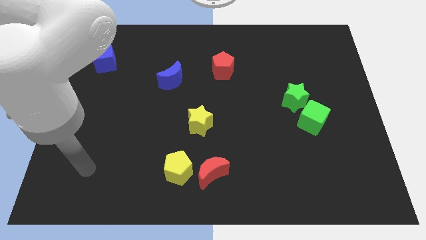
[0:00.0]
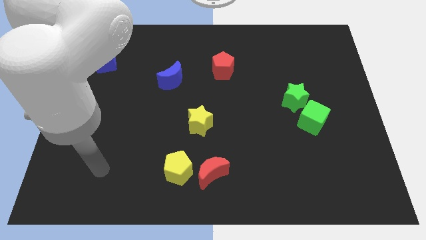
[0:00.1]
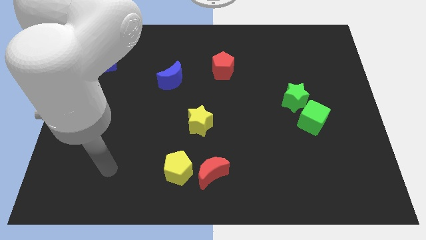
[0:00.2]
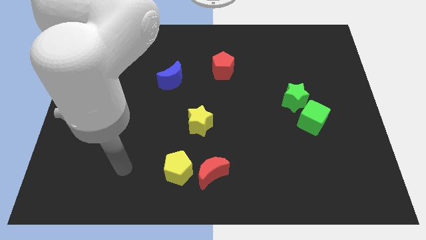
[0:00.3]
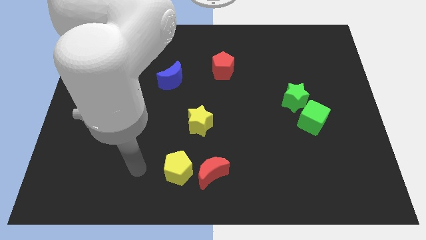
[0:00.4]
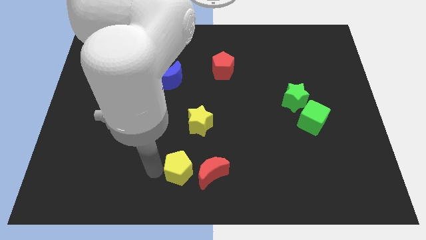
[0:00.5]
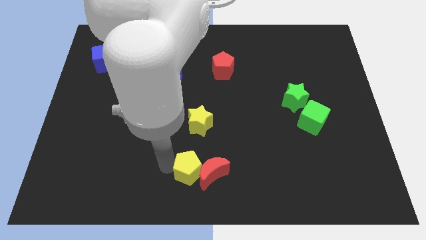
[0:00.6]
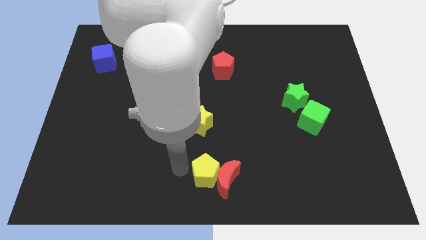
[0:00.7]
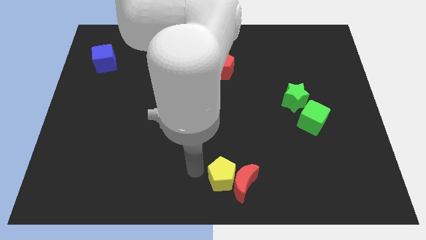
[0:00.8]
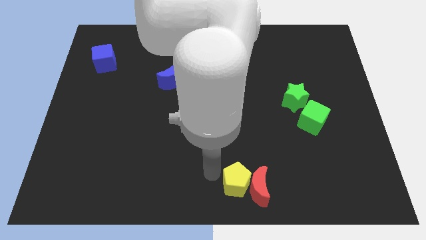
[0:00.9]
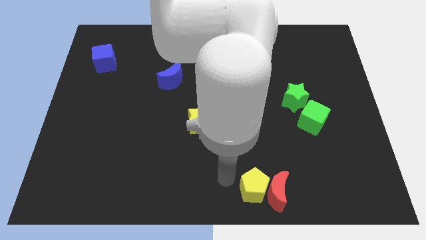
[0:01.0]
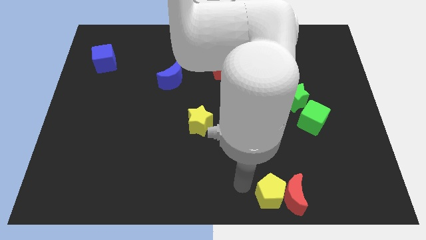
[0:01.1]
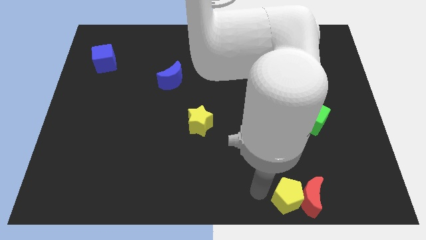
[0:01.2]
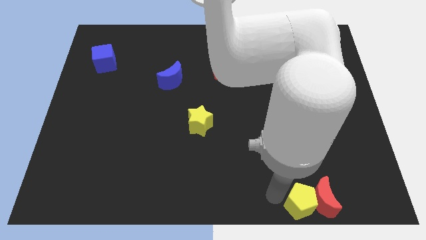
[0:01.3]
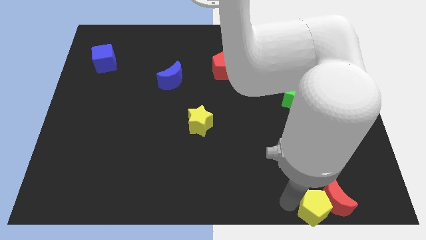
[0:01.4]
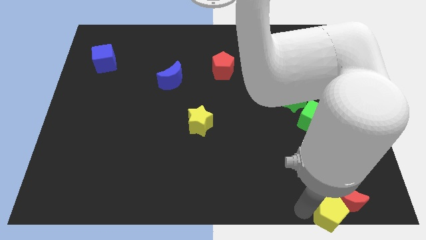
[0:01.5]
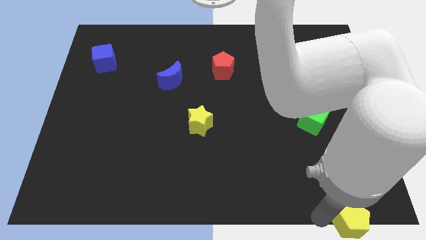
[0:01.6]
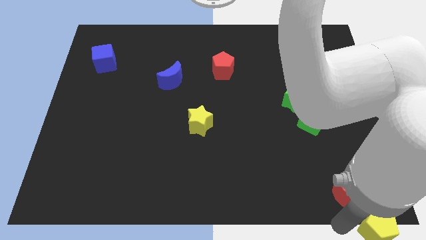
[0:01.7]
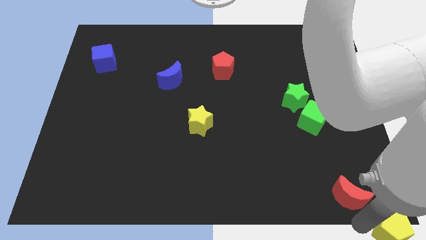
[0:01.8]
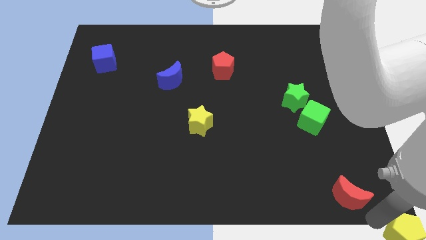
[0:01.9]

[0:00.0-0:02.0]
pull the red moon apart from the yellow pentagon

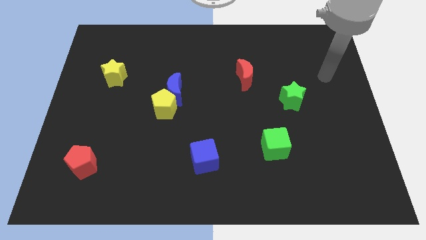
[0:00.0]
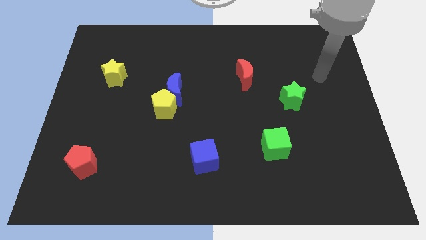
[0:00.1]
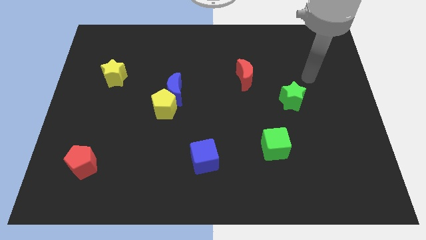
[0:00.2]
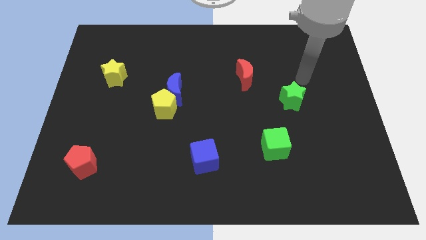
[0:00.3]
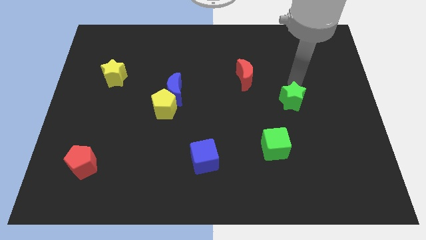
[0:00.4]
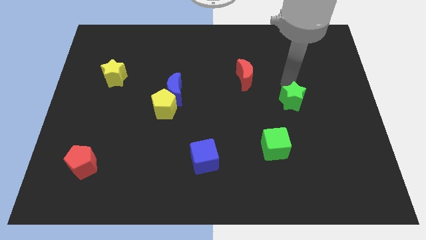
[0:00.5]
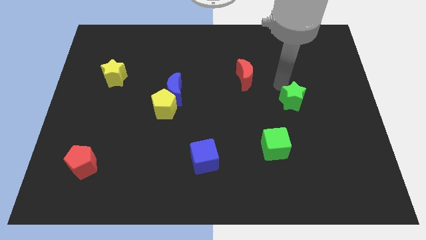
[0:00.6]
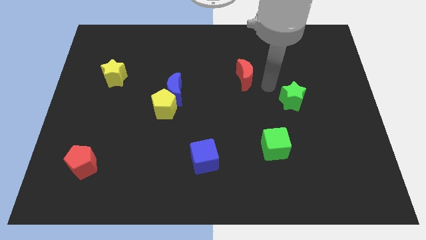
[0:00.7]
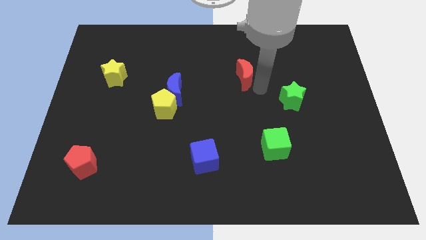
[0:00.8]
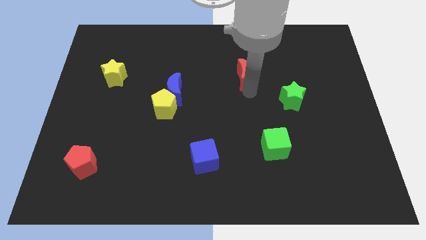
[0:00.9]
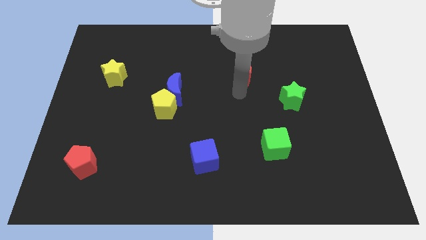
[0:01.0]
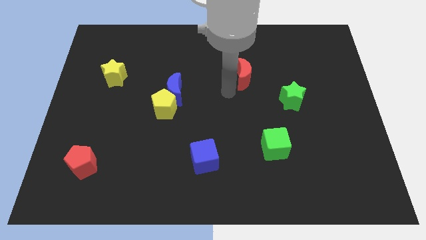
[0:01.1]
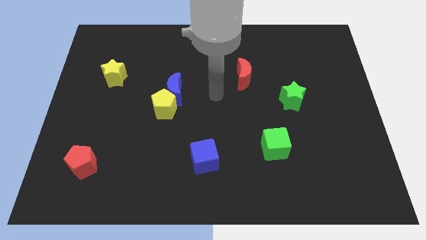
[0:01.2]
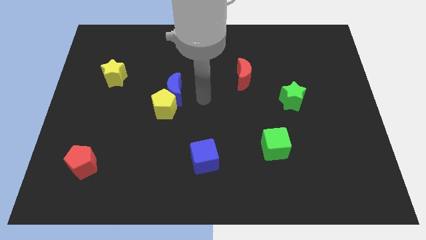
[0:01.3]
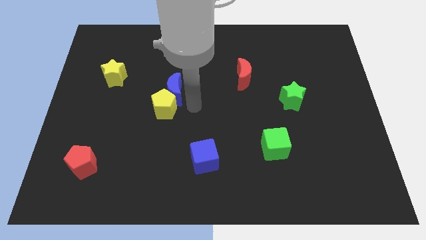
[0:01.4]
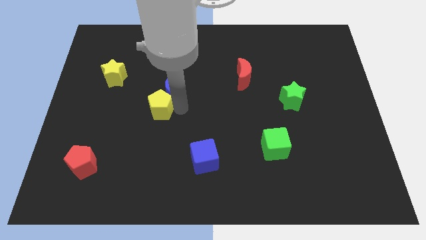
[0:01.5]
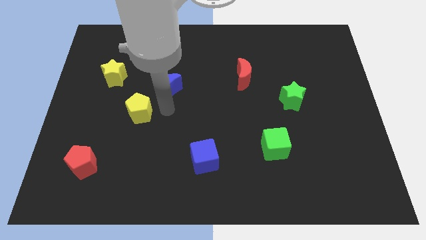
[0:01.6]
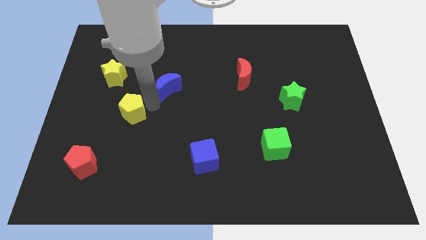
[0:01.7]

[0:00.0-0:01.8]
pull the blue moon apart from the yellow pentagon

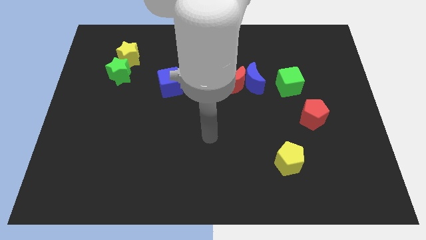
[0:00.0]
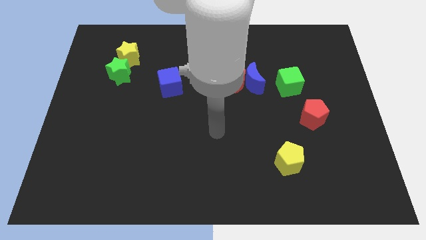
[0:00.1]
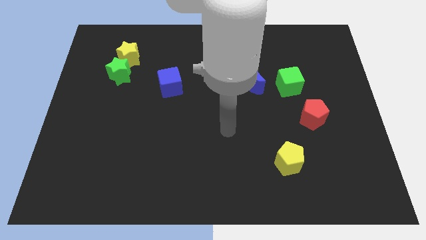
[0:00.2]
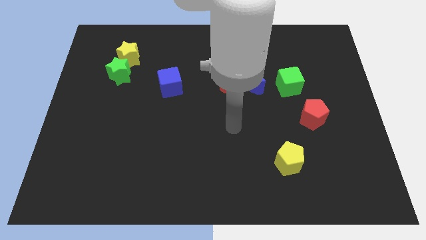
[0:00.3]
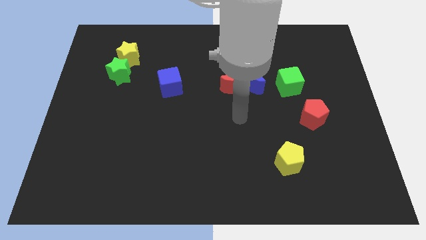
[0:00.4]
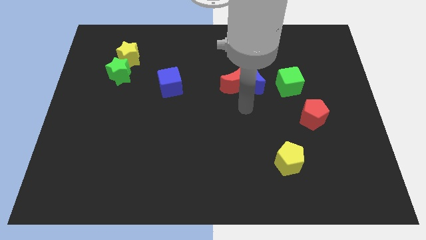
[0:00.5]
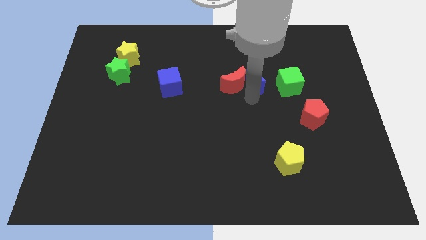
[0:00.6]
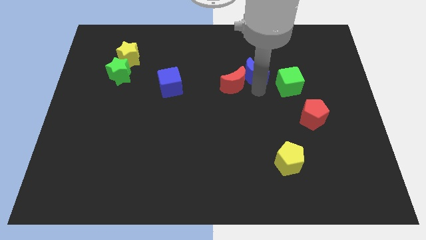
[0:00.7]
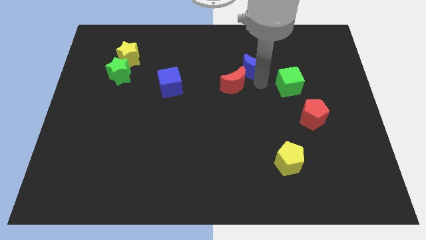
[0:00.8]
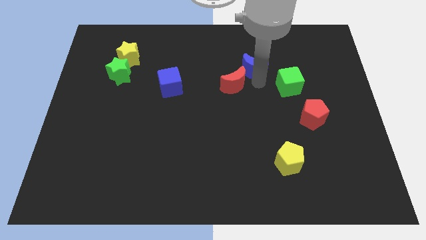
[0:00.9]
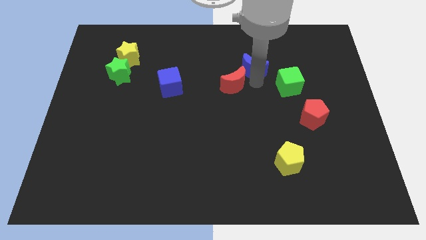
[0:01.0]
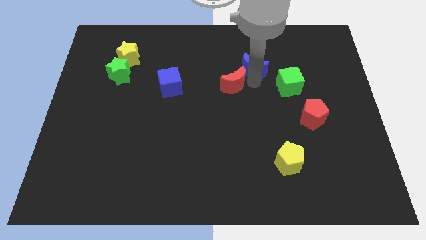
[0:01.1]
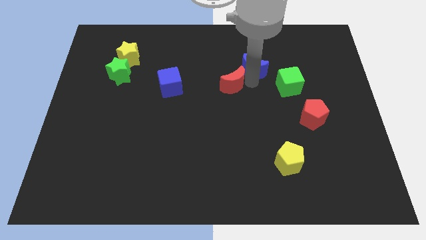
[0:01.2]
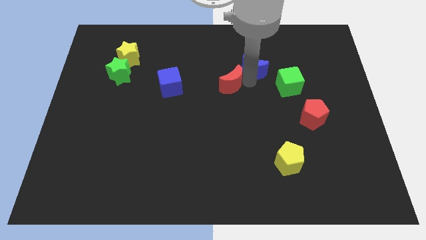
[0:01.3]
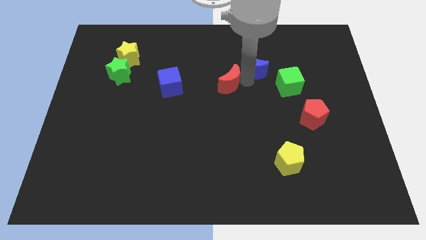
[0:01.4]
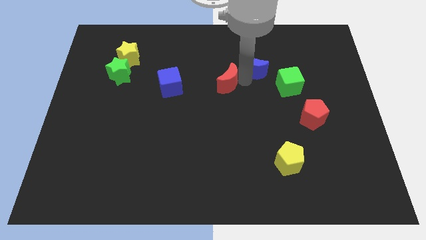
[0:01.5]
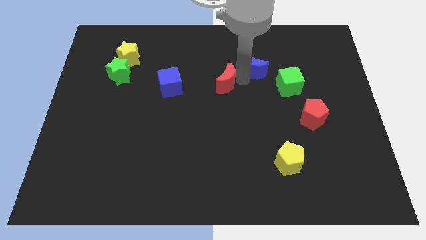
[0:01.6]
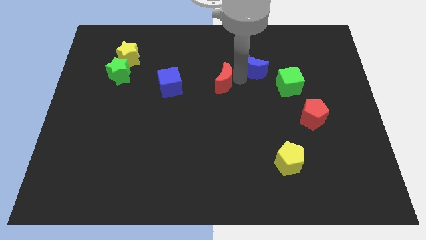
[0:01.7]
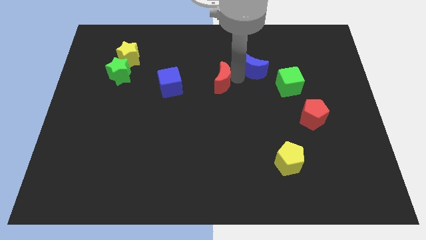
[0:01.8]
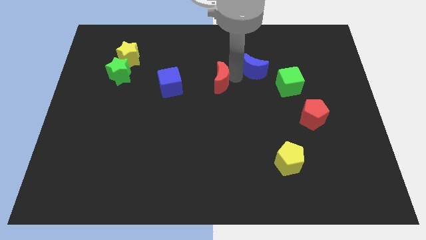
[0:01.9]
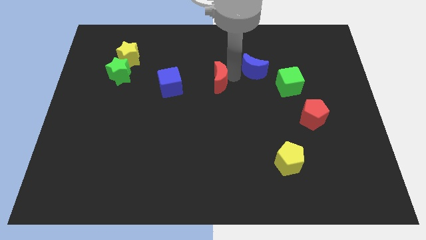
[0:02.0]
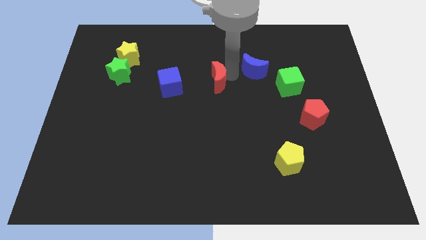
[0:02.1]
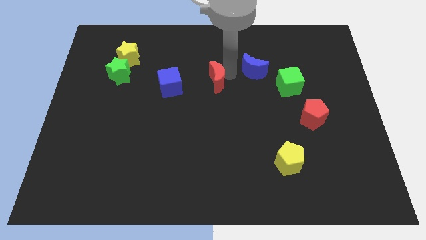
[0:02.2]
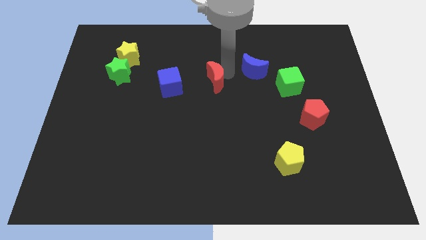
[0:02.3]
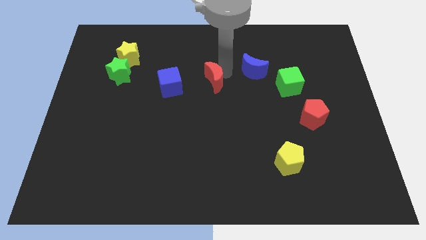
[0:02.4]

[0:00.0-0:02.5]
pull the red moon apart from the blue moon

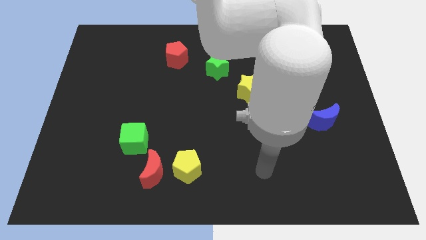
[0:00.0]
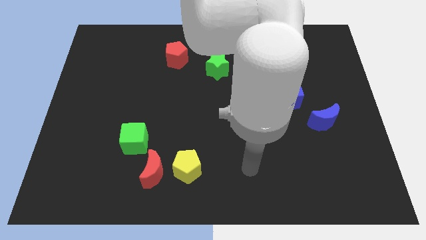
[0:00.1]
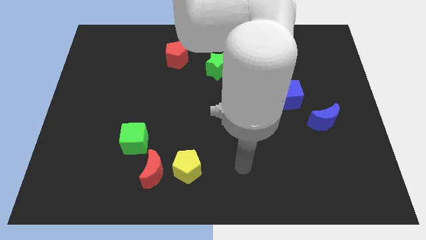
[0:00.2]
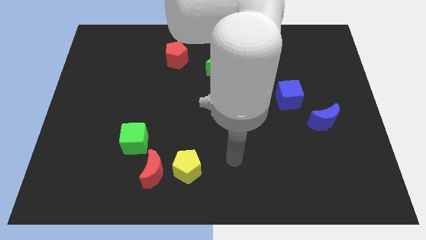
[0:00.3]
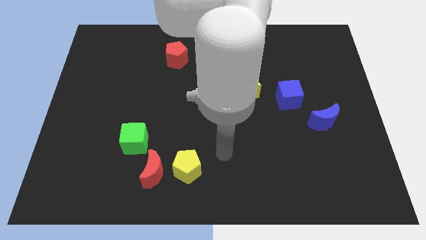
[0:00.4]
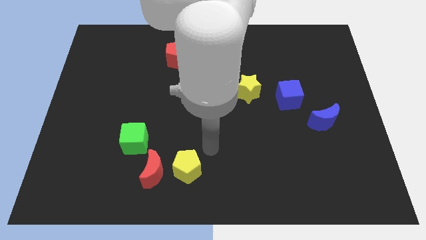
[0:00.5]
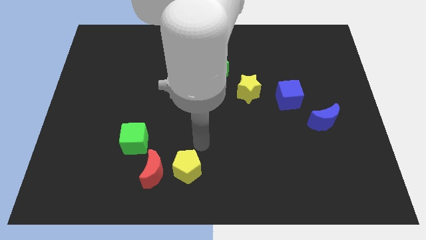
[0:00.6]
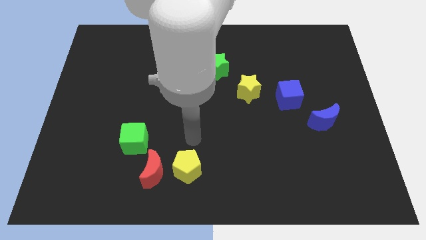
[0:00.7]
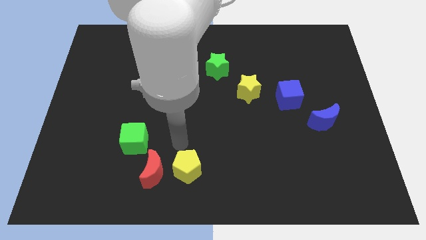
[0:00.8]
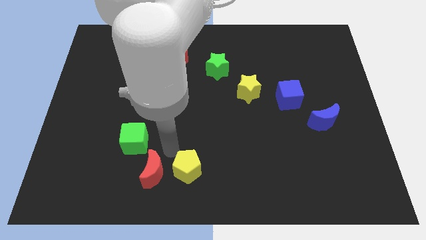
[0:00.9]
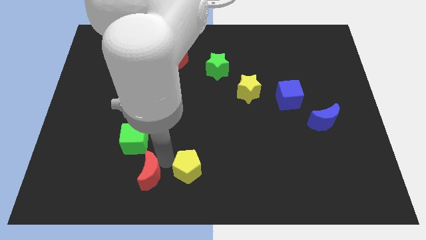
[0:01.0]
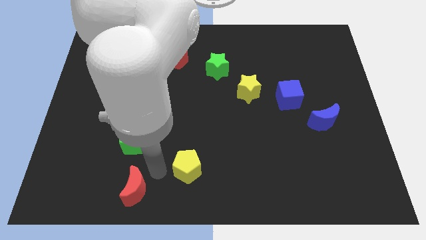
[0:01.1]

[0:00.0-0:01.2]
move the yellow pentagon away from the red moon

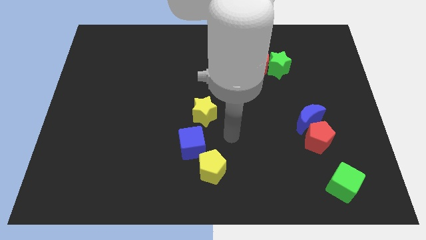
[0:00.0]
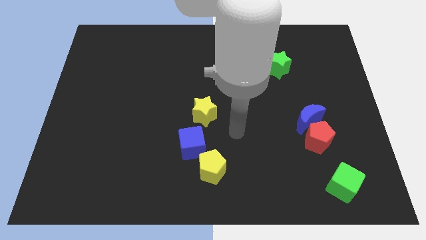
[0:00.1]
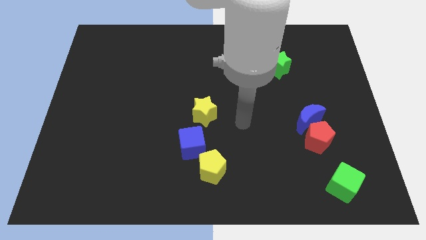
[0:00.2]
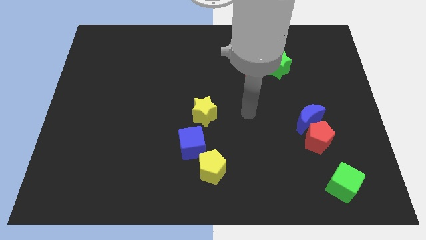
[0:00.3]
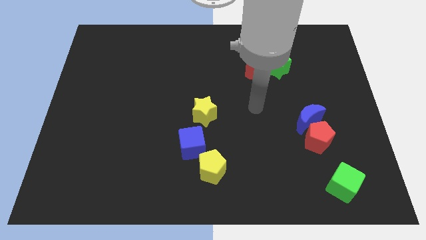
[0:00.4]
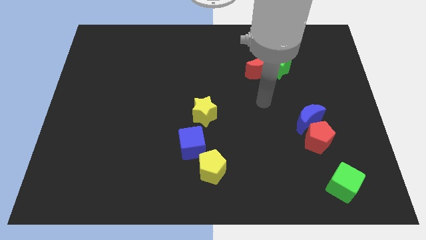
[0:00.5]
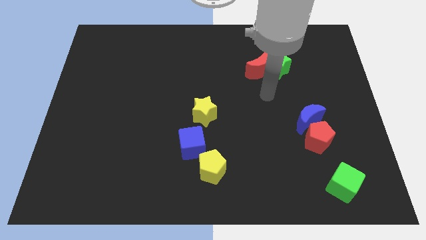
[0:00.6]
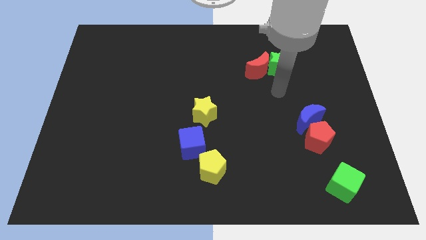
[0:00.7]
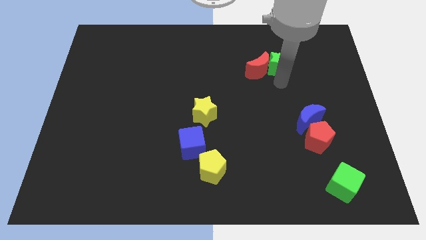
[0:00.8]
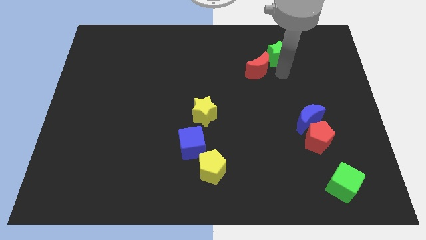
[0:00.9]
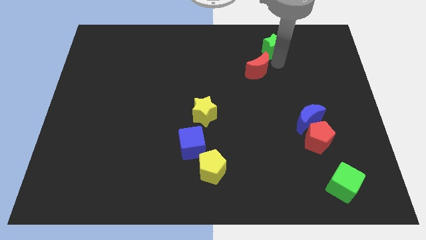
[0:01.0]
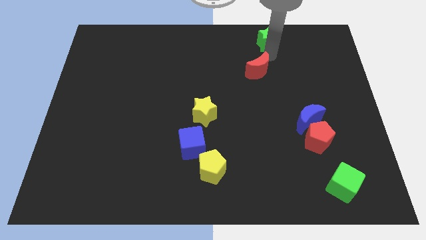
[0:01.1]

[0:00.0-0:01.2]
pull the red moon apart from the green star

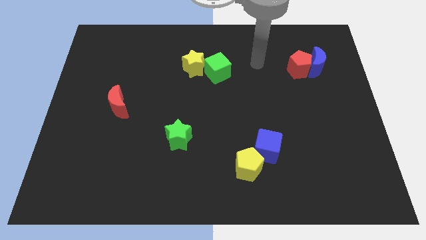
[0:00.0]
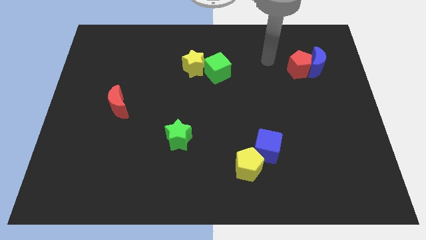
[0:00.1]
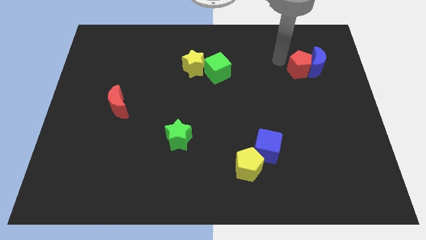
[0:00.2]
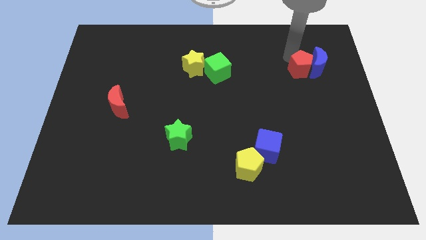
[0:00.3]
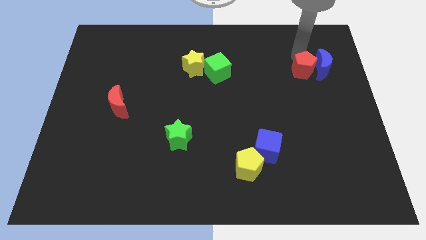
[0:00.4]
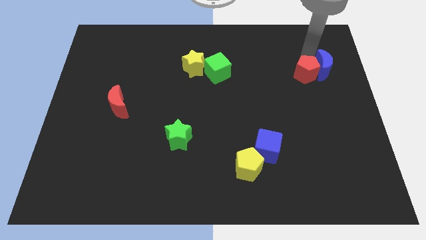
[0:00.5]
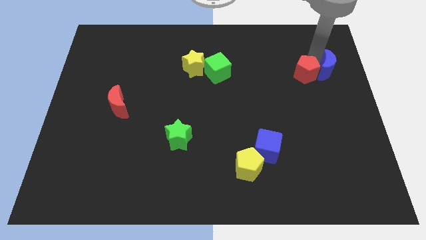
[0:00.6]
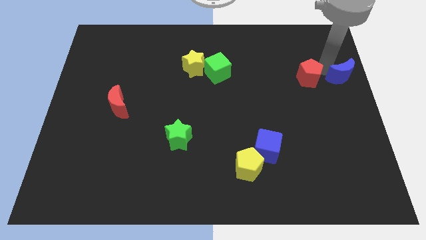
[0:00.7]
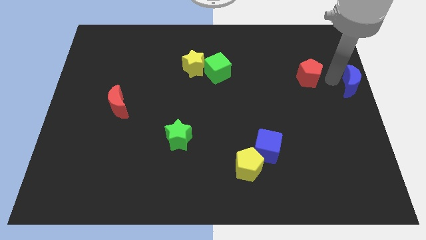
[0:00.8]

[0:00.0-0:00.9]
separate the red pentagon from the blue moon
